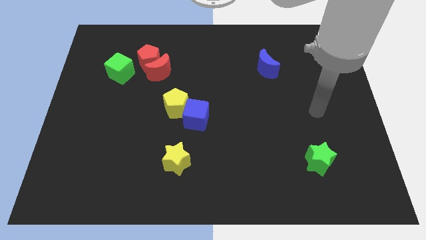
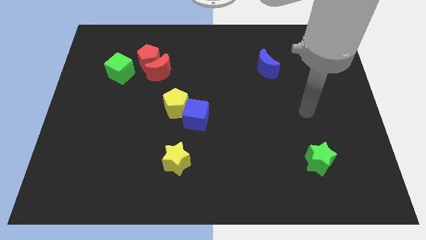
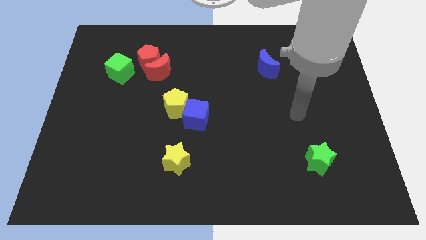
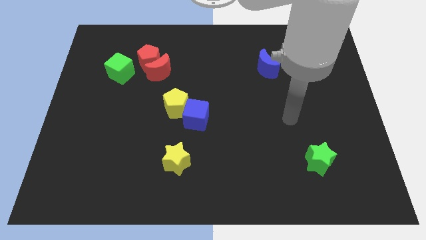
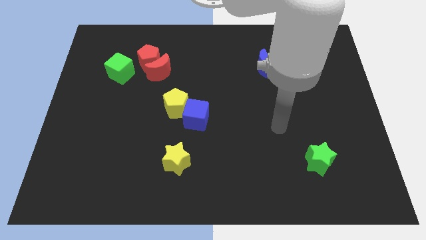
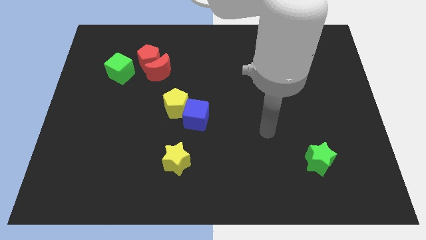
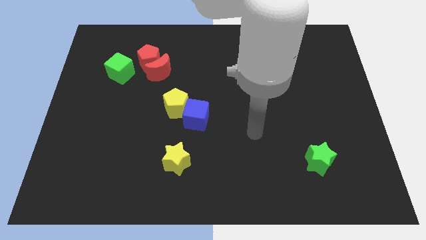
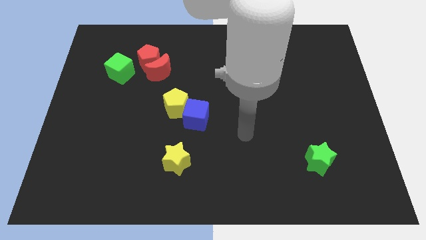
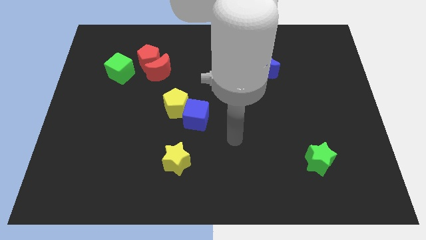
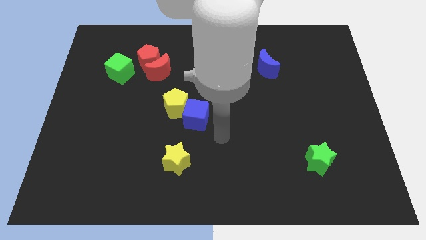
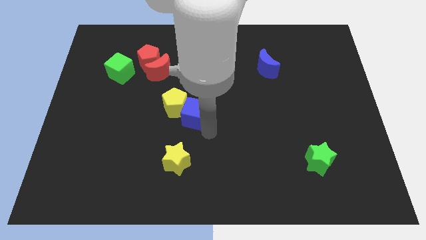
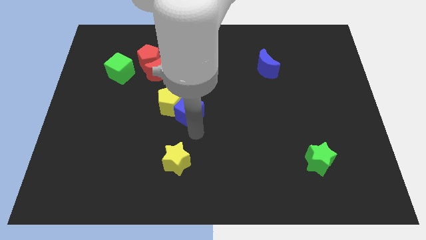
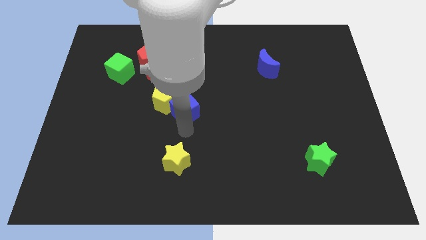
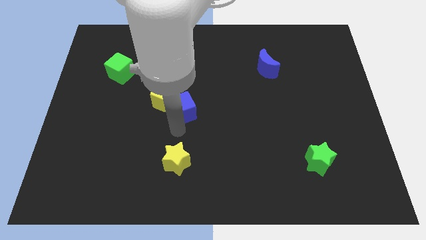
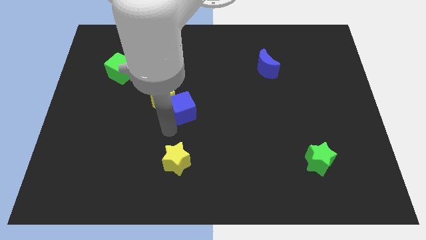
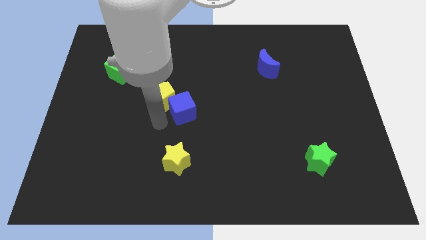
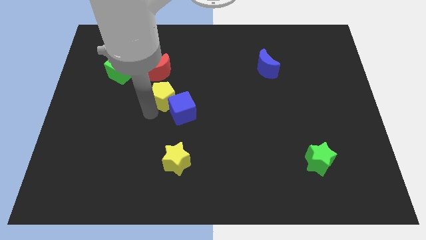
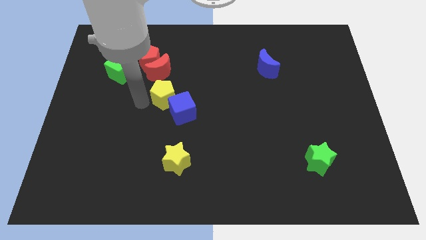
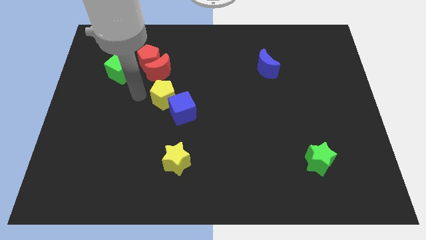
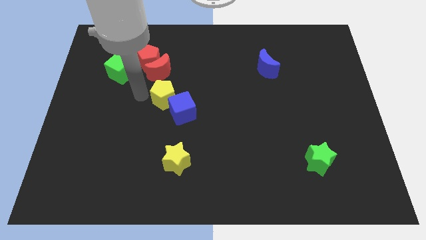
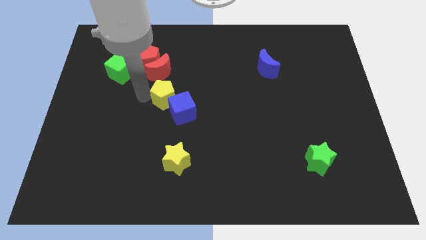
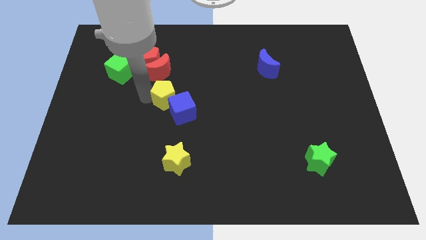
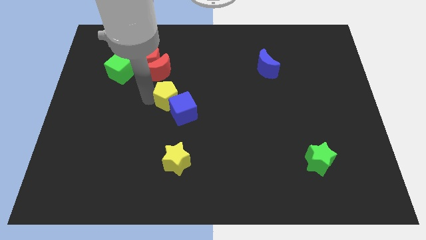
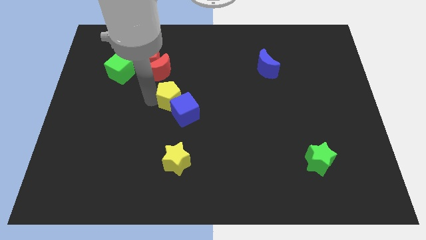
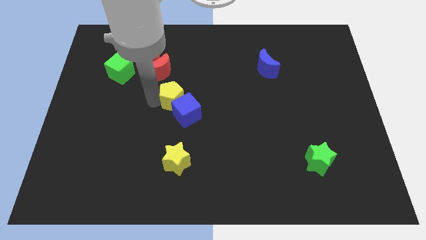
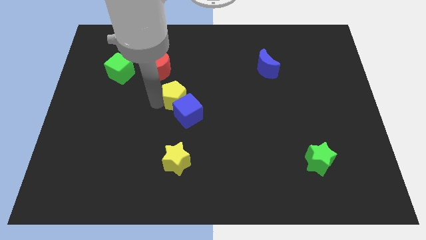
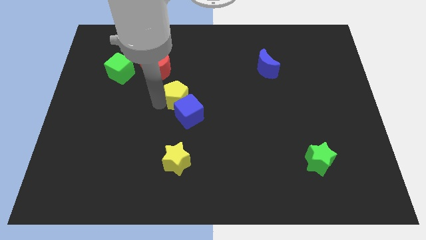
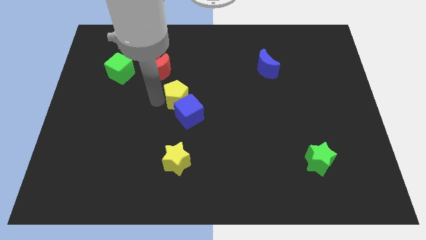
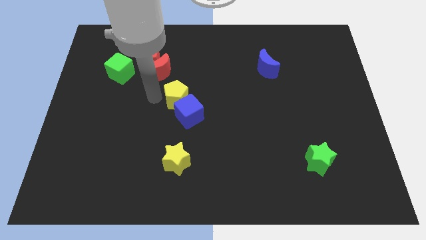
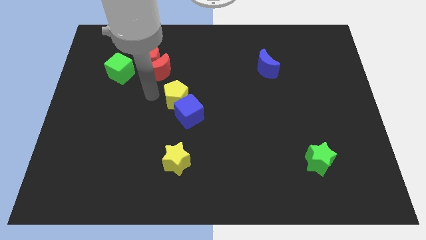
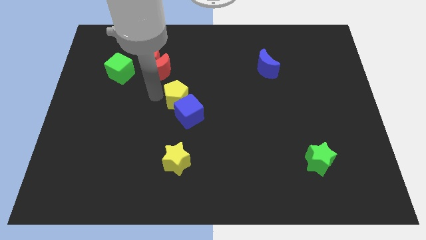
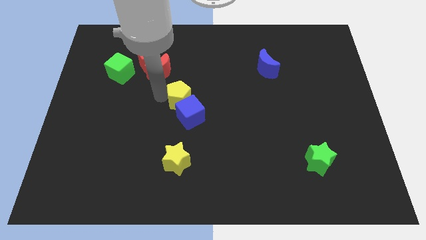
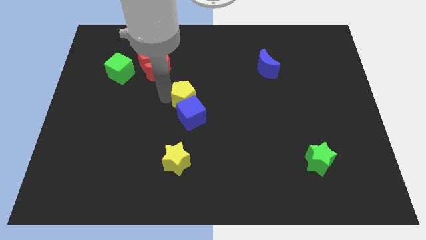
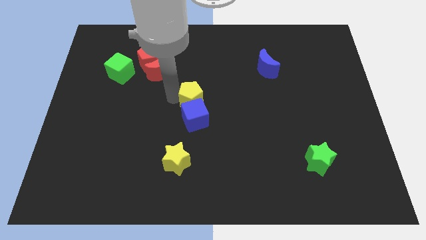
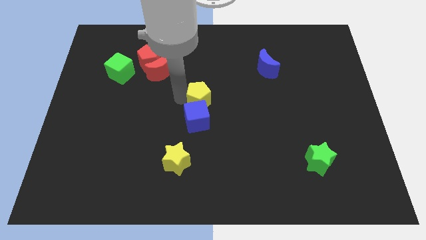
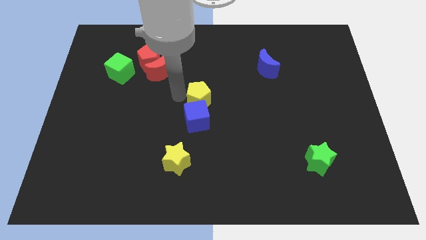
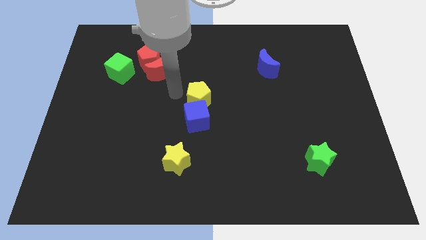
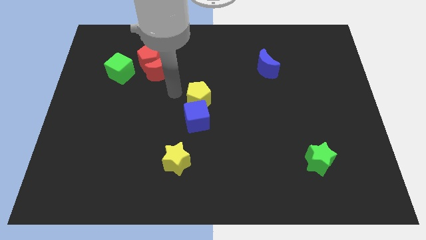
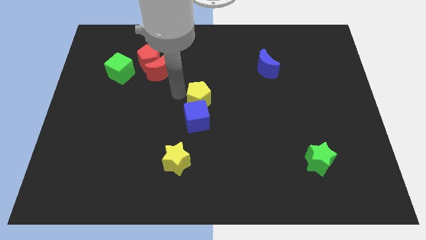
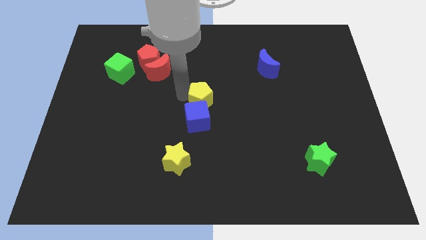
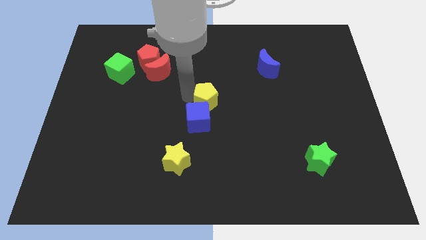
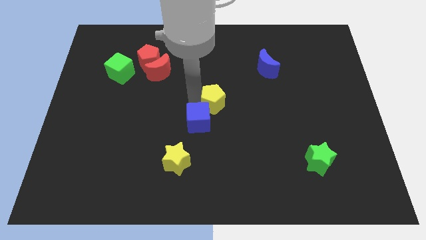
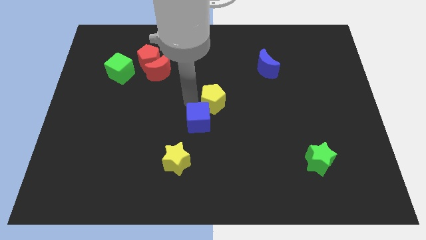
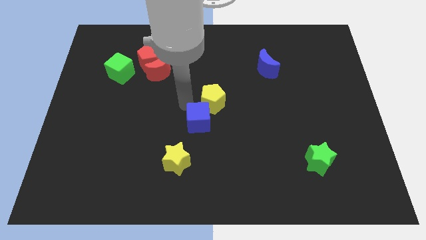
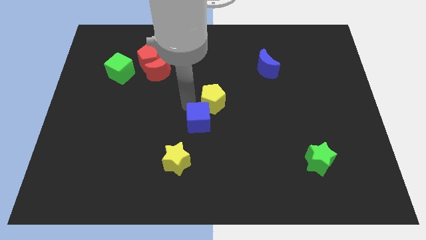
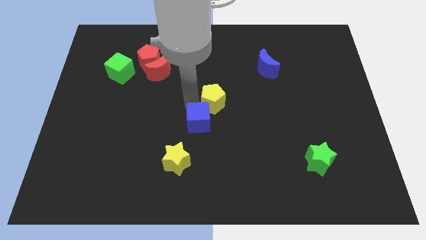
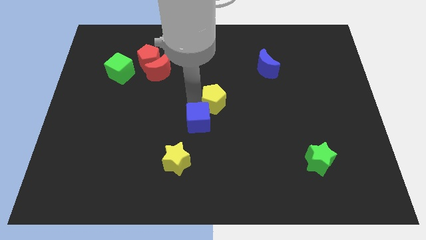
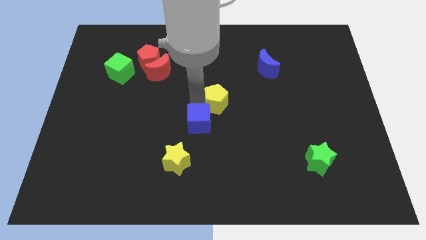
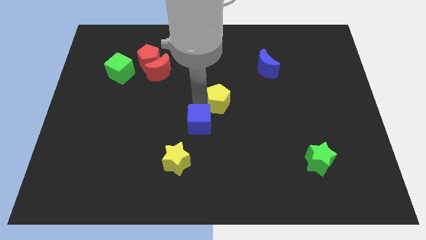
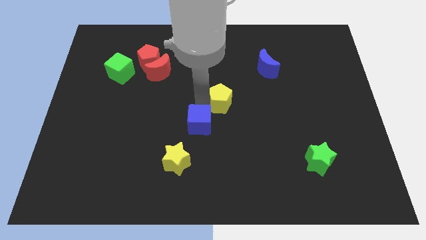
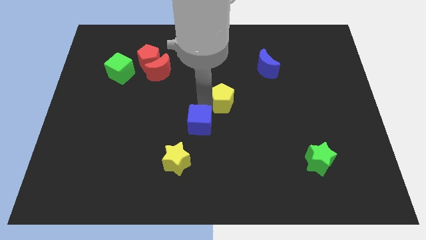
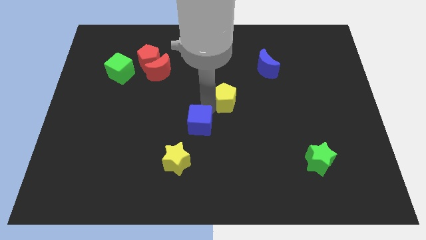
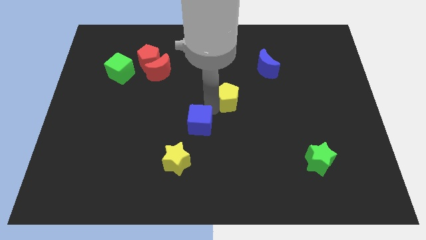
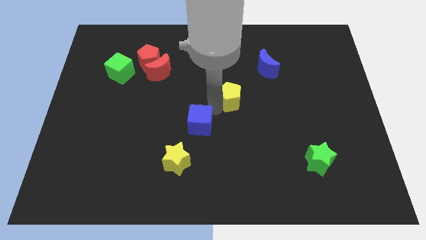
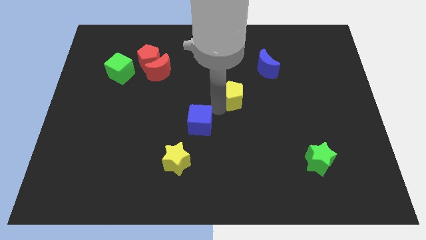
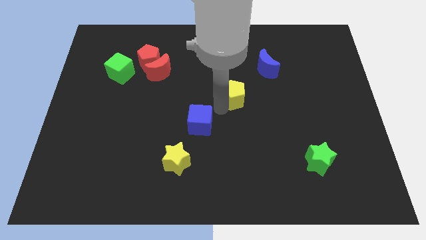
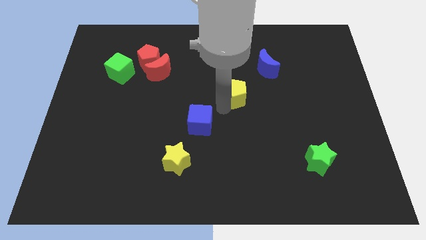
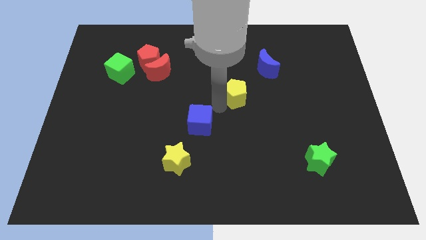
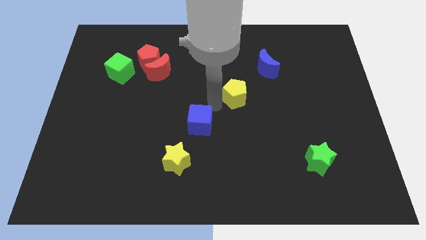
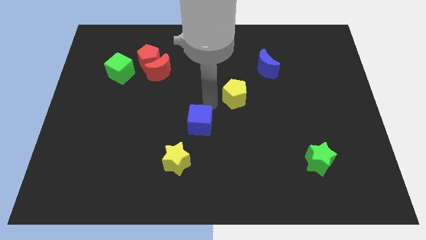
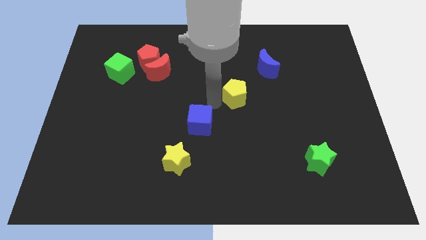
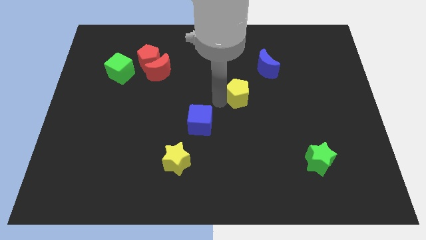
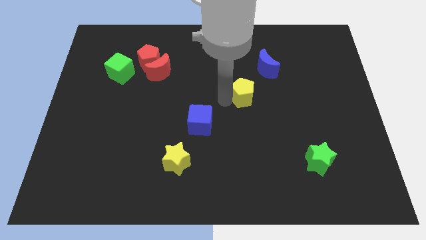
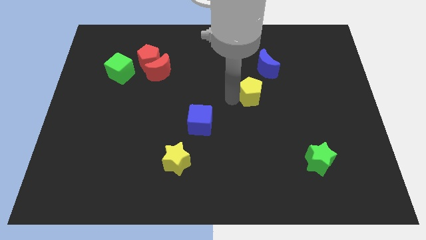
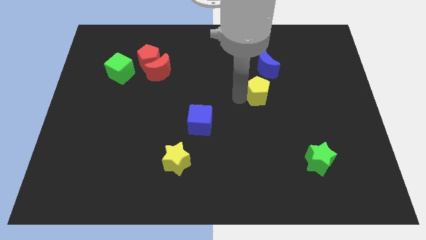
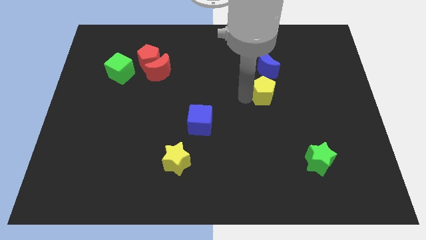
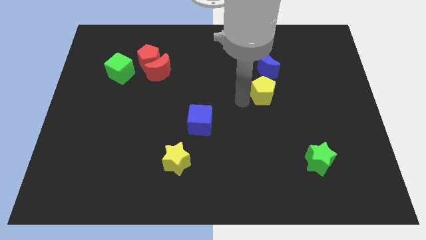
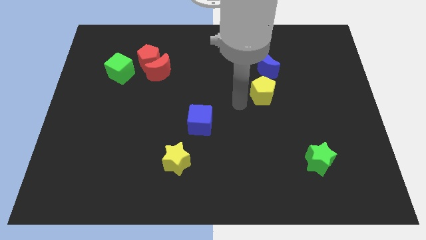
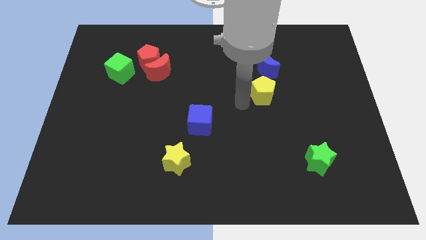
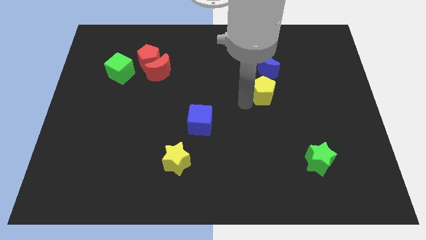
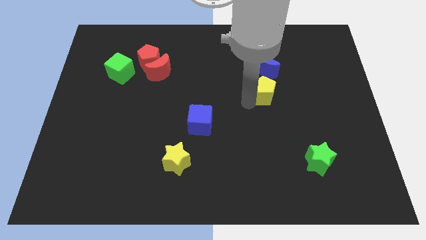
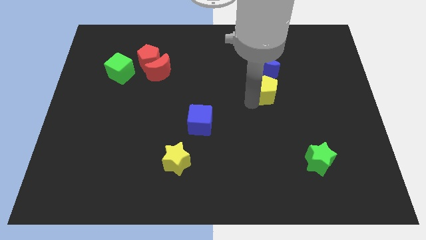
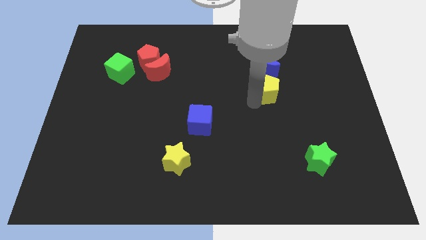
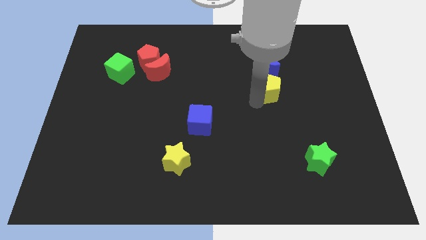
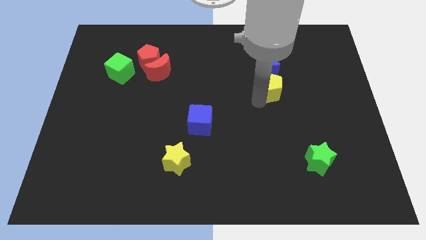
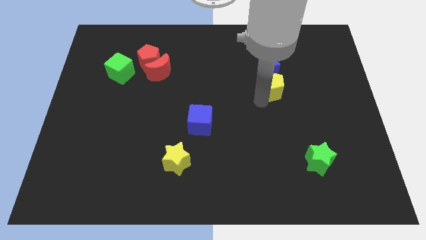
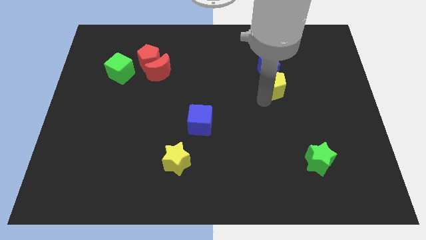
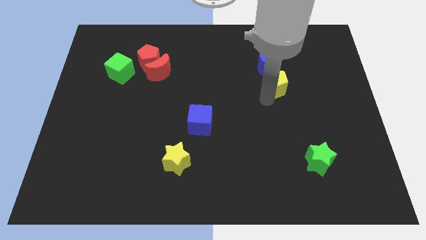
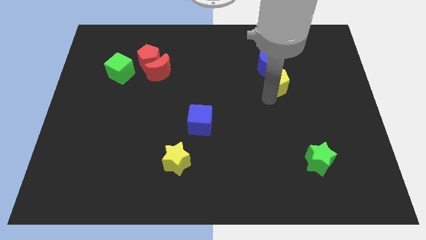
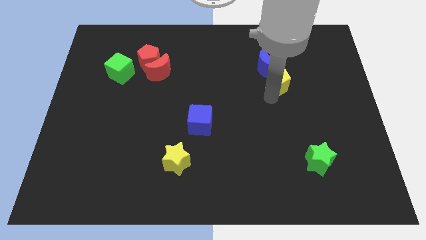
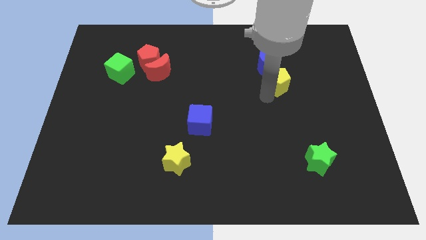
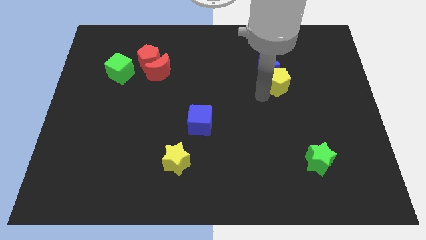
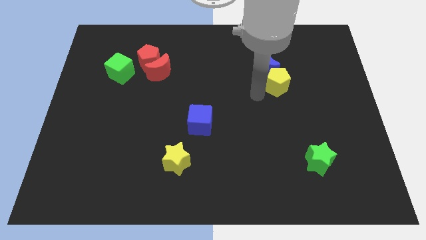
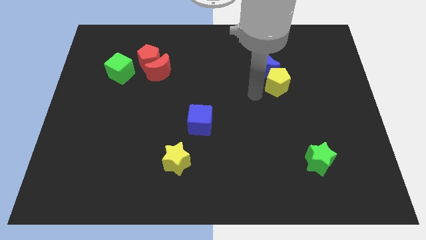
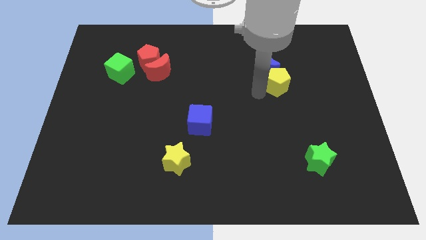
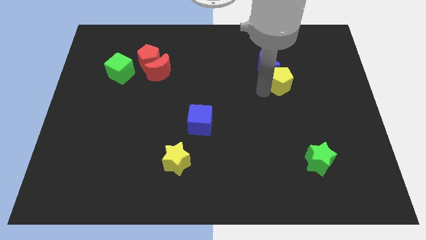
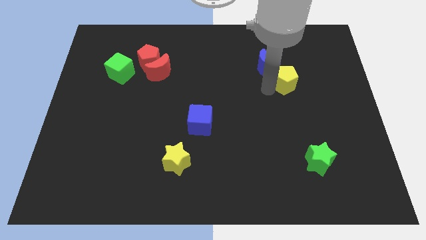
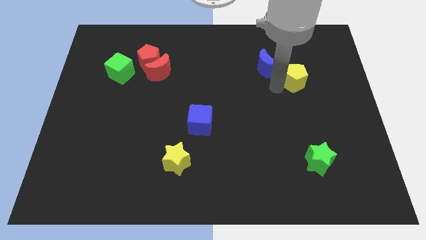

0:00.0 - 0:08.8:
push the yellow pentagon to the right side of the blue moon
